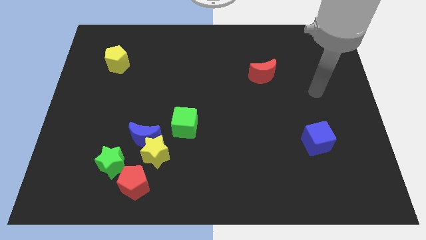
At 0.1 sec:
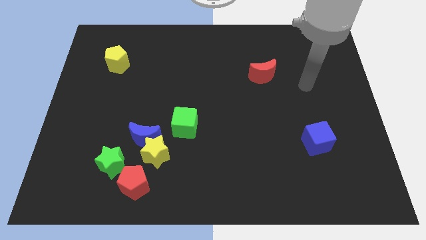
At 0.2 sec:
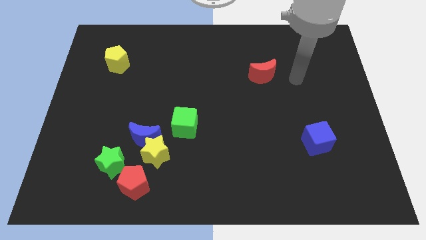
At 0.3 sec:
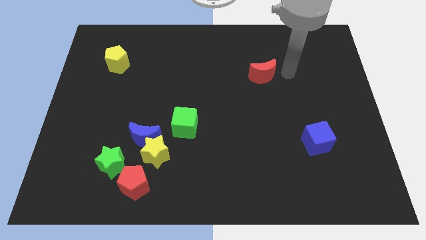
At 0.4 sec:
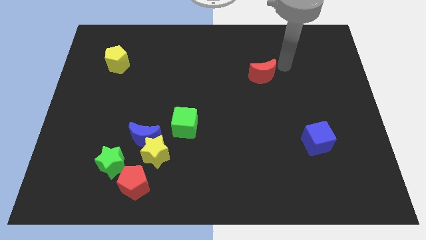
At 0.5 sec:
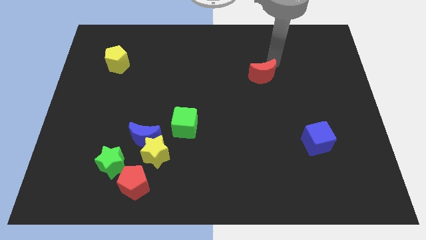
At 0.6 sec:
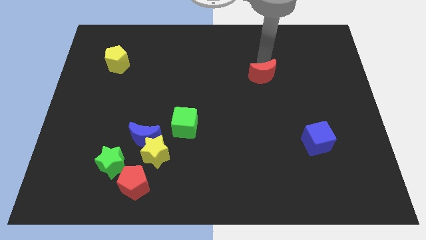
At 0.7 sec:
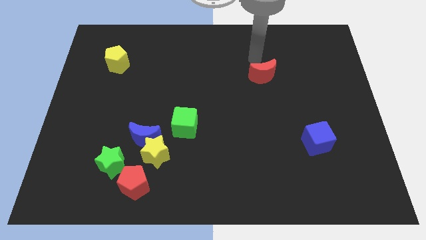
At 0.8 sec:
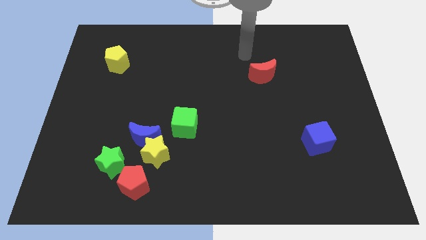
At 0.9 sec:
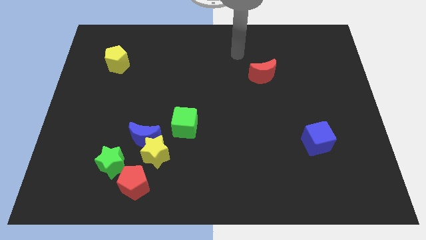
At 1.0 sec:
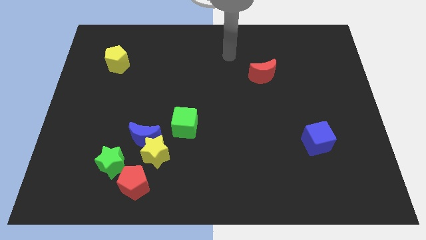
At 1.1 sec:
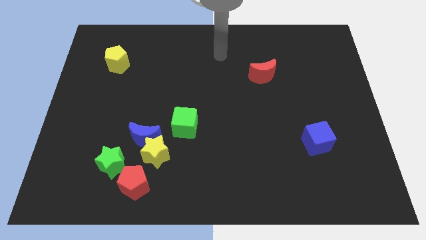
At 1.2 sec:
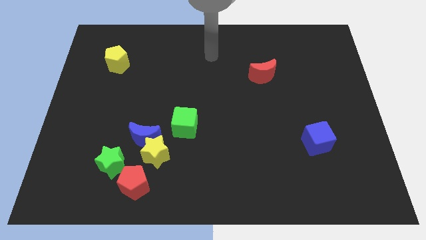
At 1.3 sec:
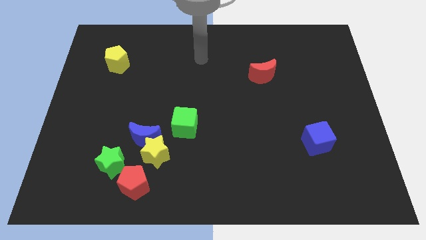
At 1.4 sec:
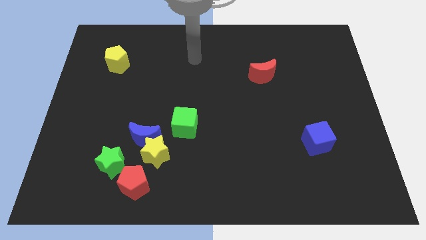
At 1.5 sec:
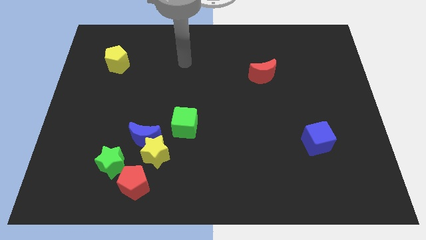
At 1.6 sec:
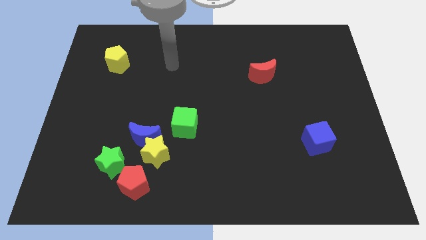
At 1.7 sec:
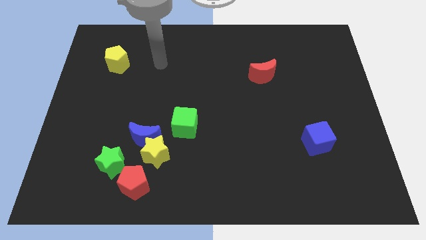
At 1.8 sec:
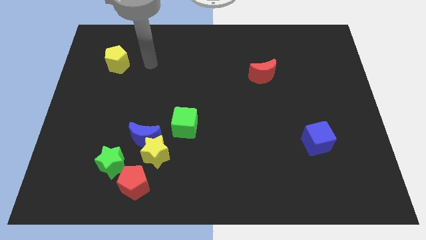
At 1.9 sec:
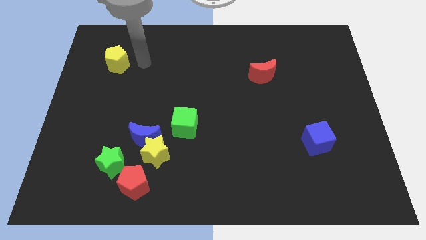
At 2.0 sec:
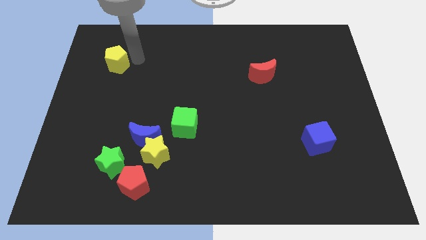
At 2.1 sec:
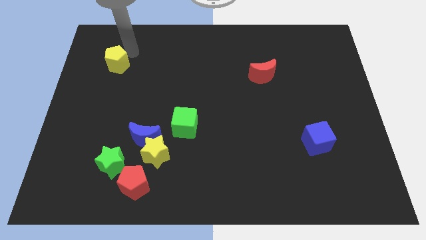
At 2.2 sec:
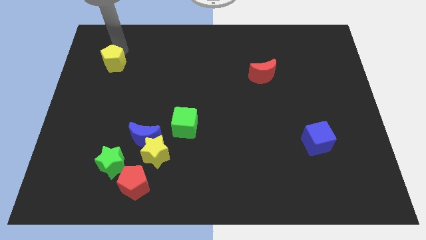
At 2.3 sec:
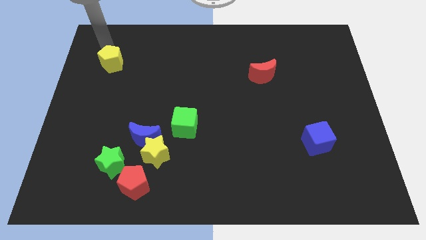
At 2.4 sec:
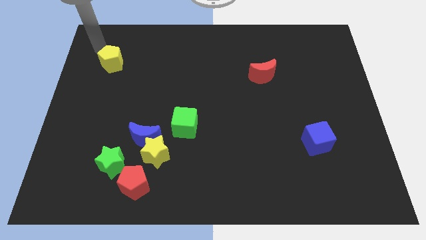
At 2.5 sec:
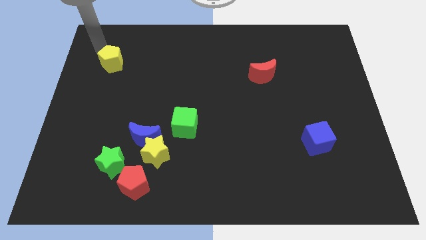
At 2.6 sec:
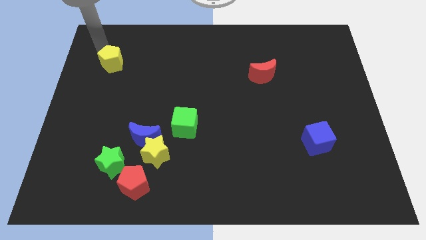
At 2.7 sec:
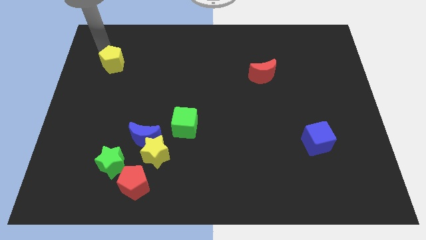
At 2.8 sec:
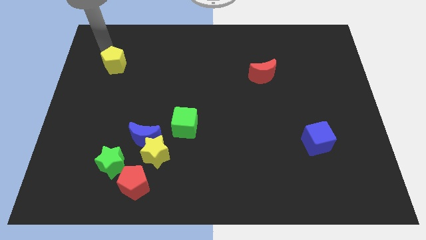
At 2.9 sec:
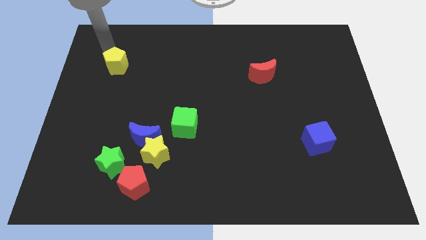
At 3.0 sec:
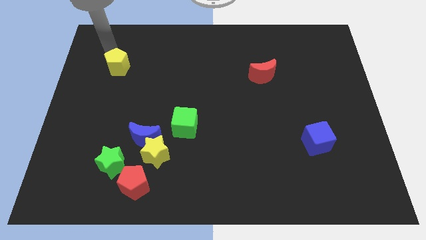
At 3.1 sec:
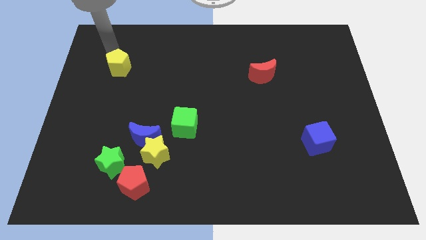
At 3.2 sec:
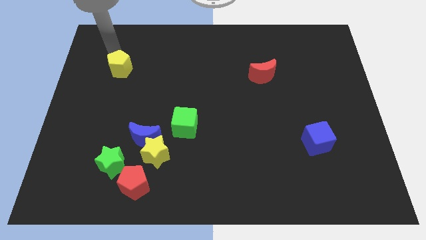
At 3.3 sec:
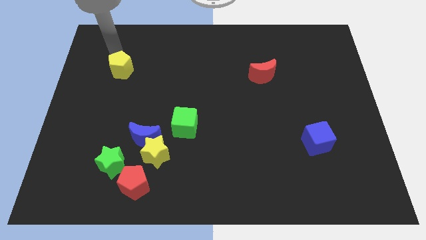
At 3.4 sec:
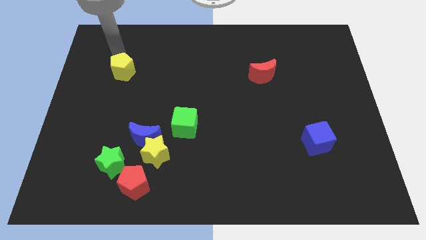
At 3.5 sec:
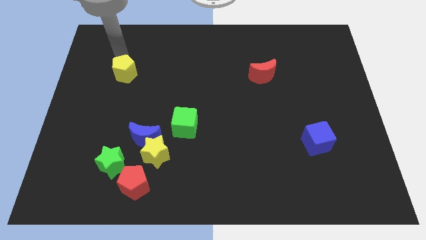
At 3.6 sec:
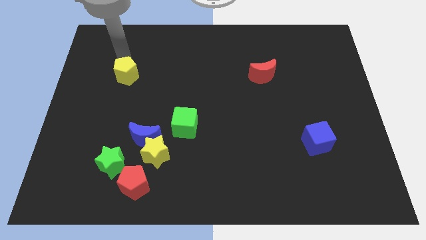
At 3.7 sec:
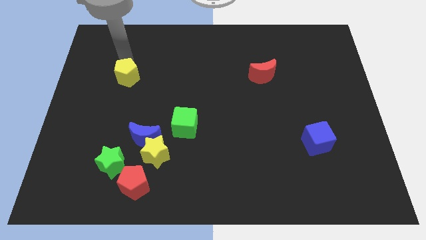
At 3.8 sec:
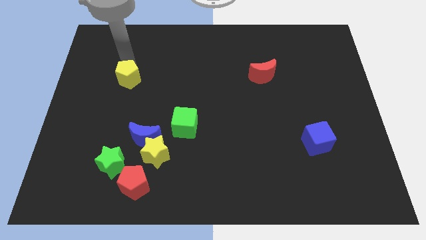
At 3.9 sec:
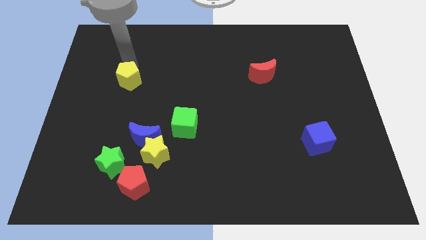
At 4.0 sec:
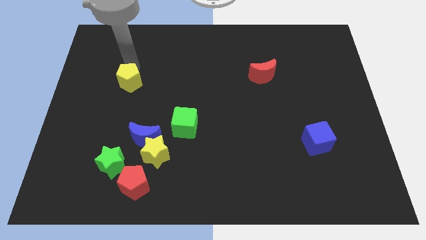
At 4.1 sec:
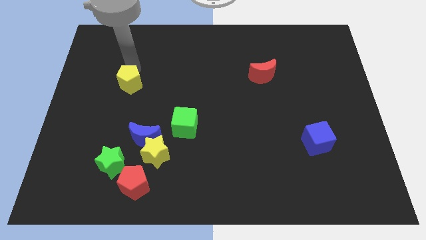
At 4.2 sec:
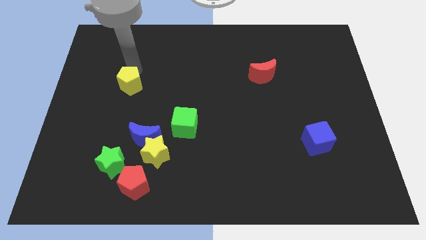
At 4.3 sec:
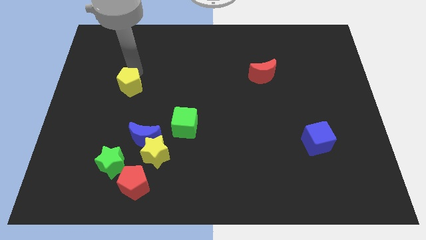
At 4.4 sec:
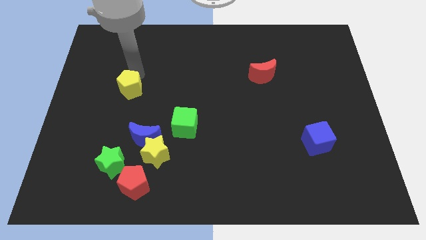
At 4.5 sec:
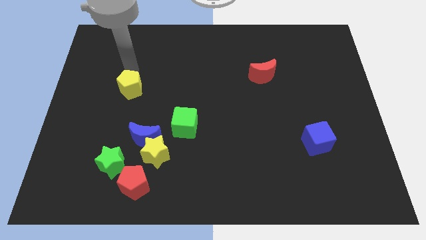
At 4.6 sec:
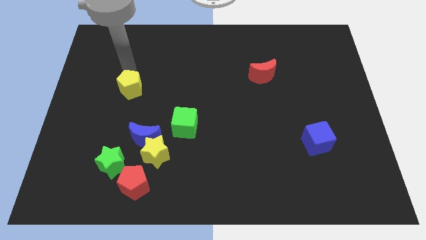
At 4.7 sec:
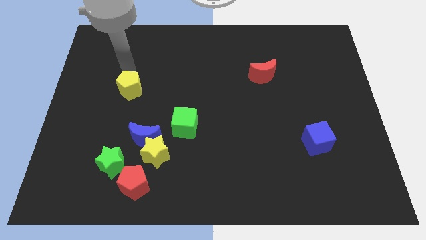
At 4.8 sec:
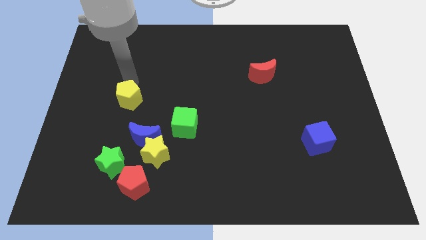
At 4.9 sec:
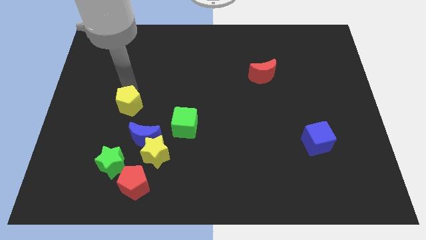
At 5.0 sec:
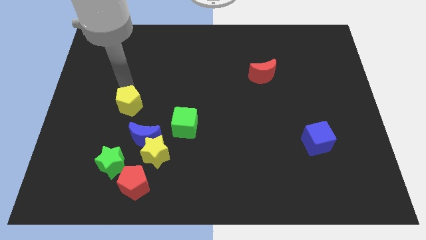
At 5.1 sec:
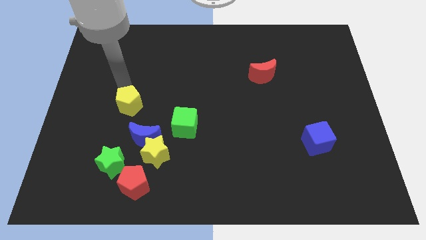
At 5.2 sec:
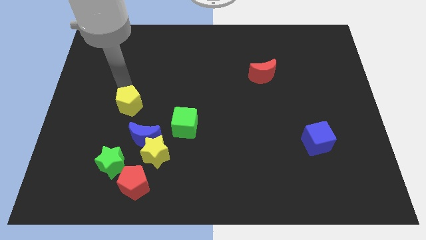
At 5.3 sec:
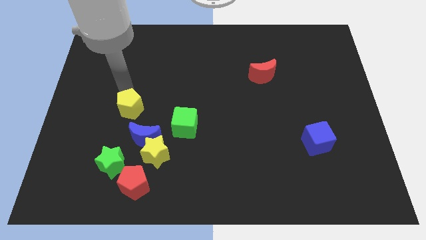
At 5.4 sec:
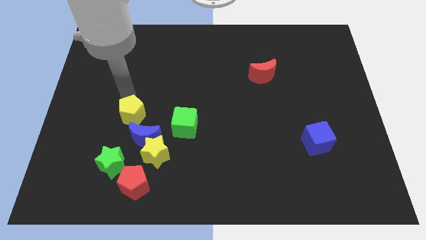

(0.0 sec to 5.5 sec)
slide the yellow pentagon to the left side of the green cube

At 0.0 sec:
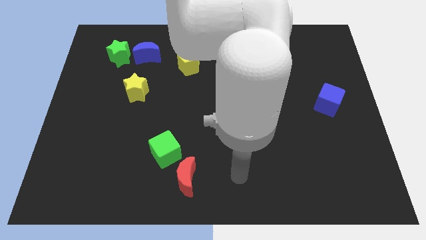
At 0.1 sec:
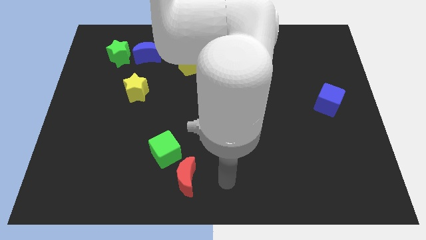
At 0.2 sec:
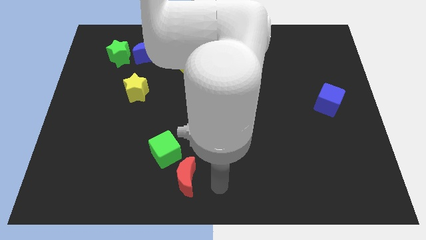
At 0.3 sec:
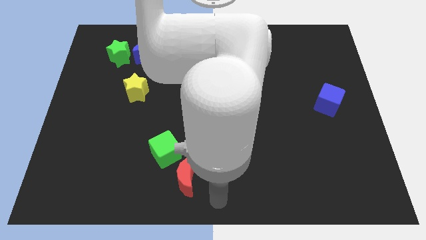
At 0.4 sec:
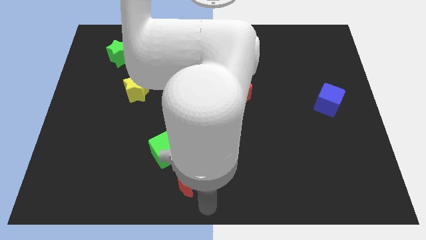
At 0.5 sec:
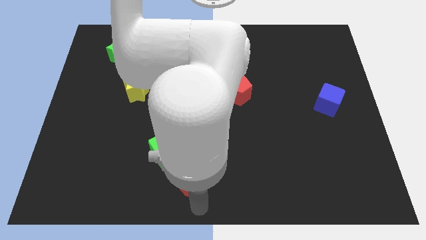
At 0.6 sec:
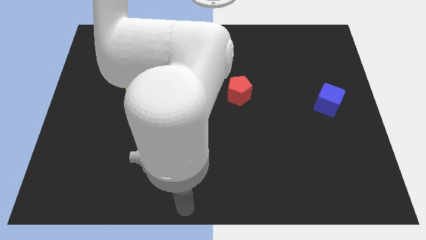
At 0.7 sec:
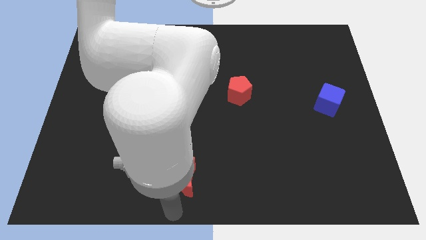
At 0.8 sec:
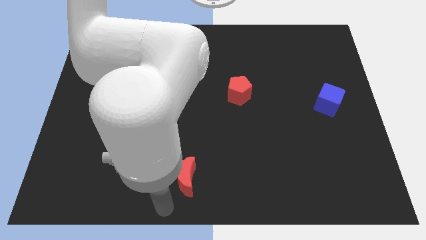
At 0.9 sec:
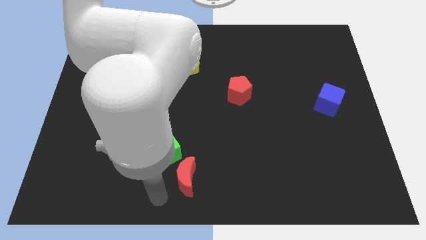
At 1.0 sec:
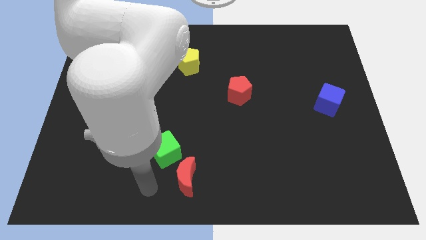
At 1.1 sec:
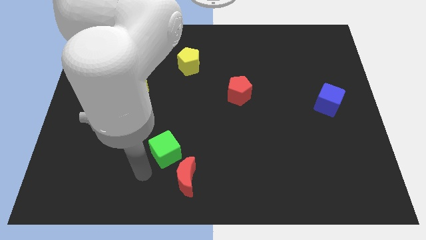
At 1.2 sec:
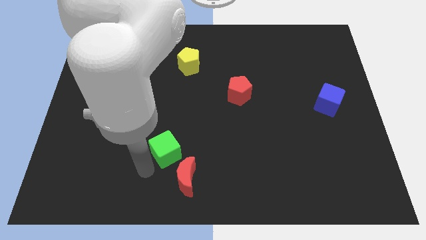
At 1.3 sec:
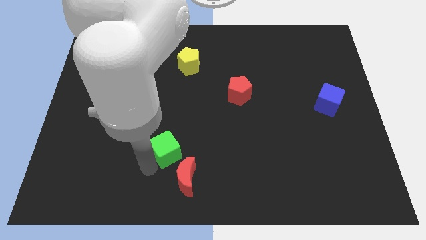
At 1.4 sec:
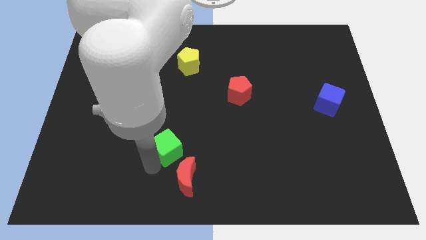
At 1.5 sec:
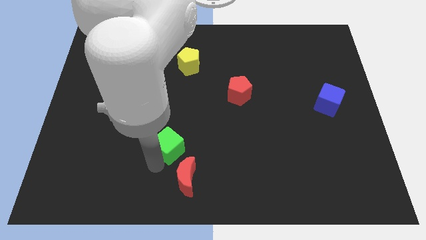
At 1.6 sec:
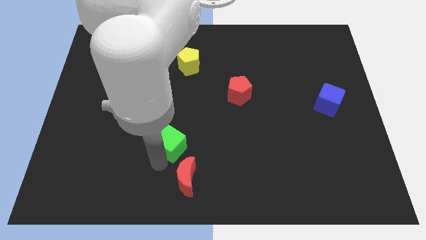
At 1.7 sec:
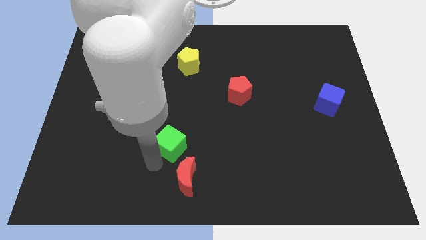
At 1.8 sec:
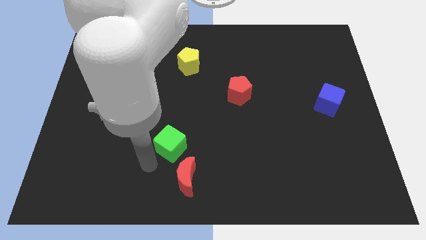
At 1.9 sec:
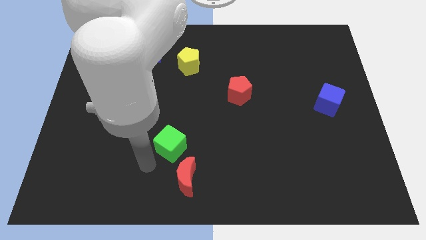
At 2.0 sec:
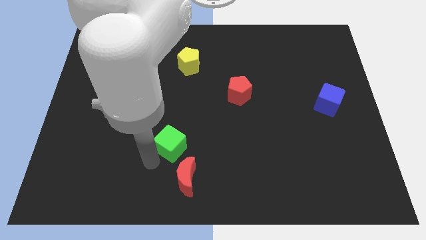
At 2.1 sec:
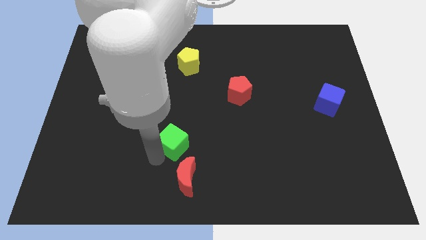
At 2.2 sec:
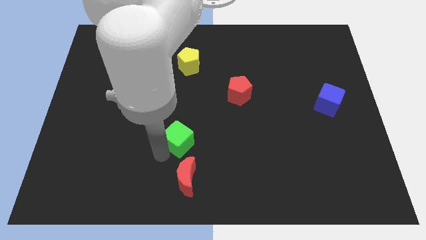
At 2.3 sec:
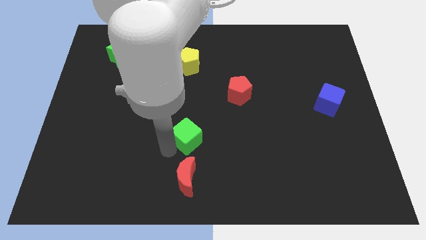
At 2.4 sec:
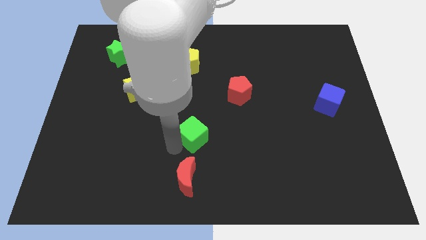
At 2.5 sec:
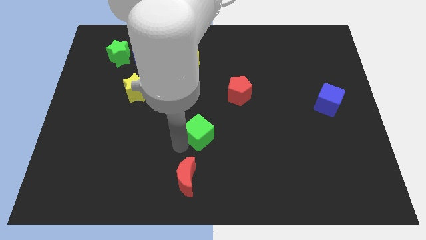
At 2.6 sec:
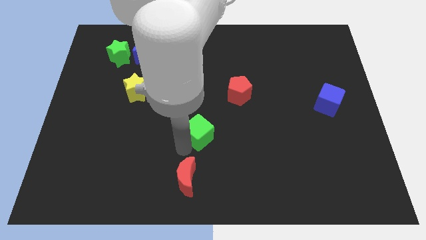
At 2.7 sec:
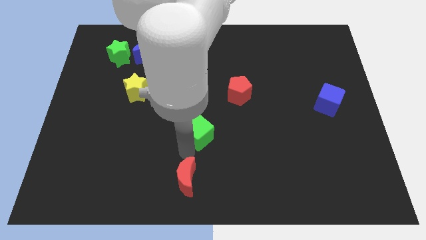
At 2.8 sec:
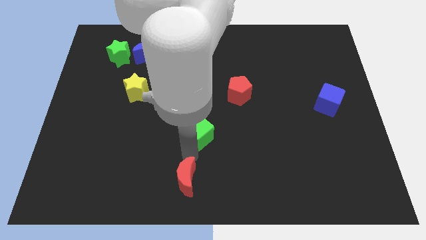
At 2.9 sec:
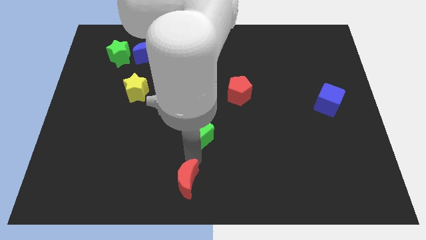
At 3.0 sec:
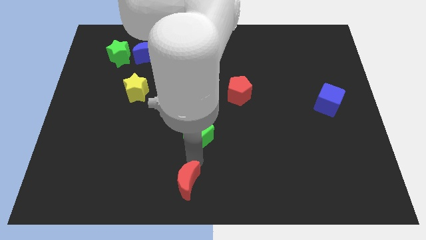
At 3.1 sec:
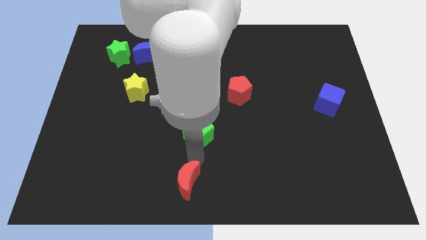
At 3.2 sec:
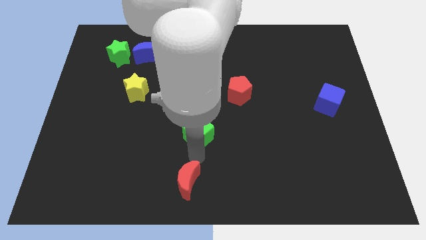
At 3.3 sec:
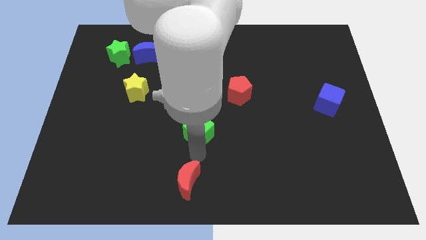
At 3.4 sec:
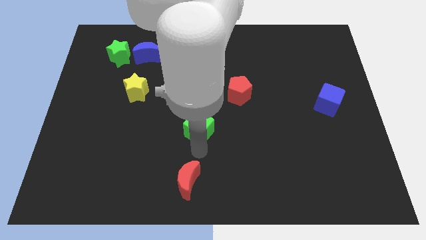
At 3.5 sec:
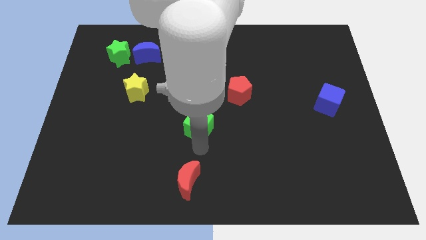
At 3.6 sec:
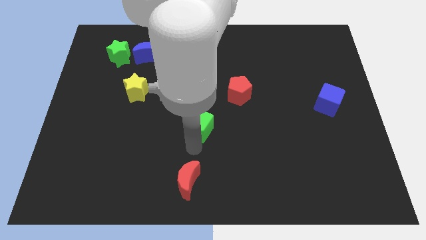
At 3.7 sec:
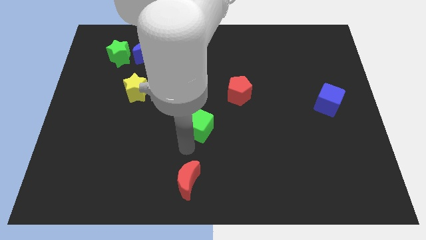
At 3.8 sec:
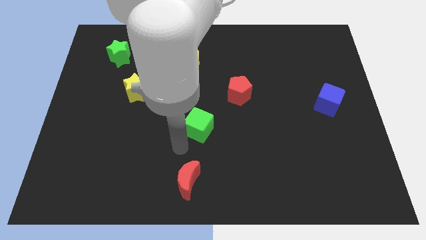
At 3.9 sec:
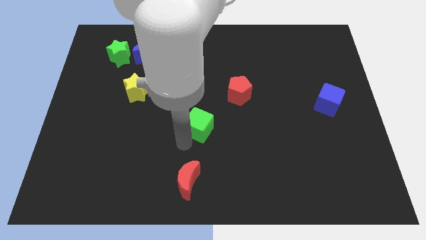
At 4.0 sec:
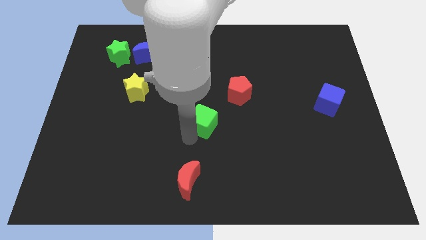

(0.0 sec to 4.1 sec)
push the green cube to the bottom left side of the red pentagon
